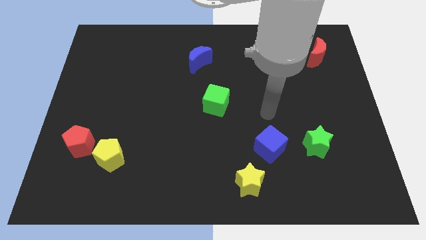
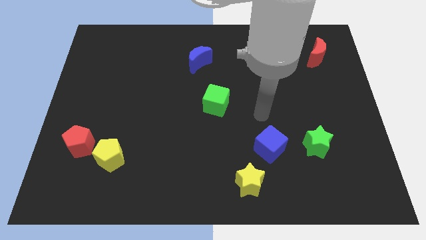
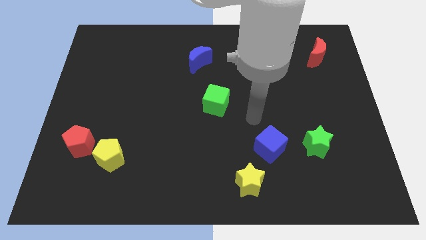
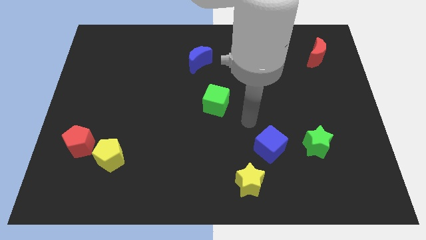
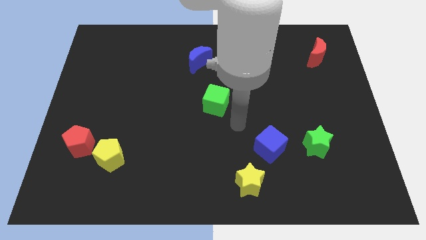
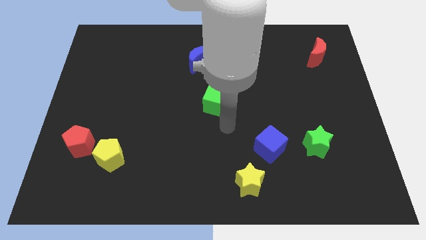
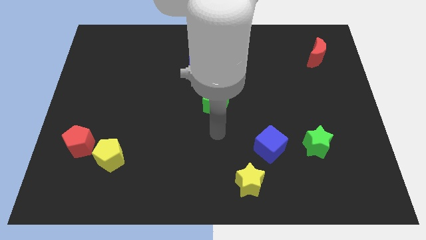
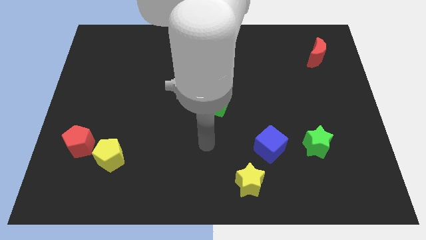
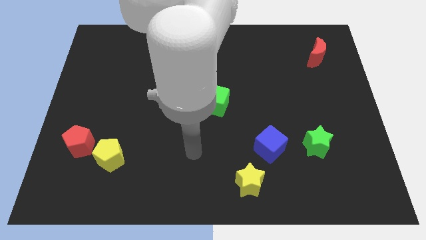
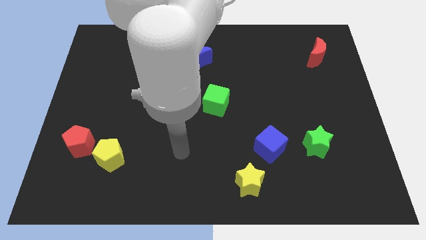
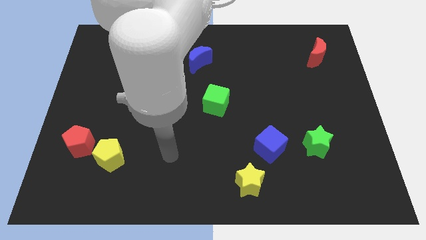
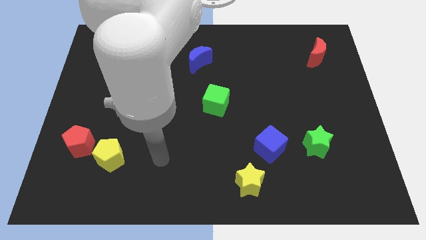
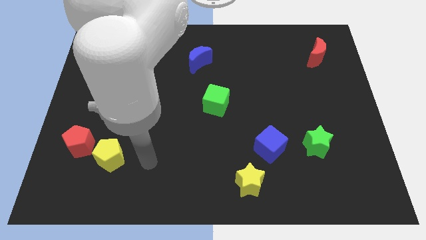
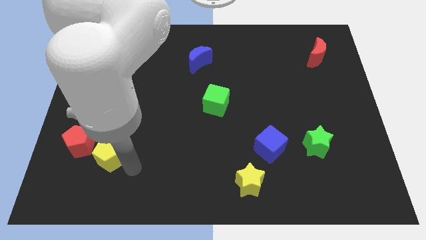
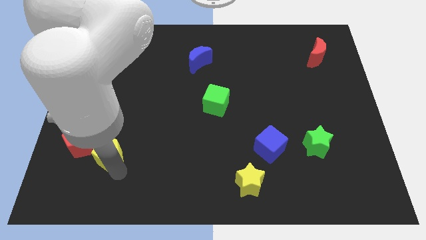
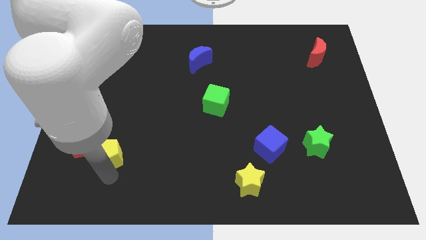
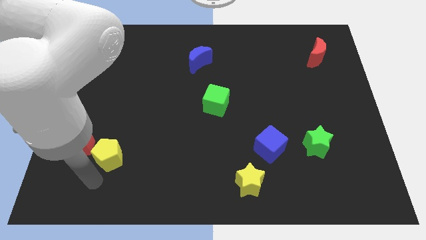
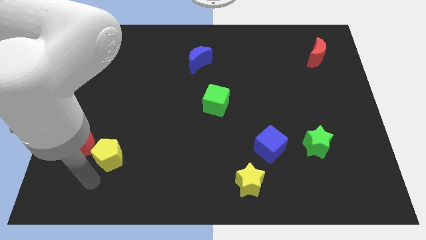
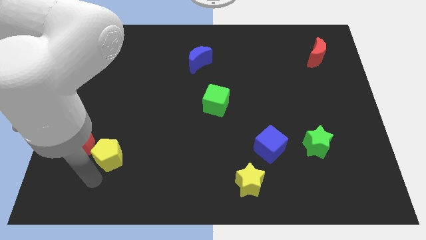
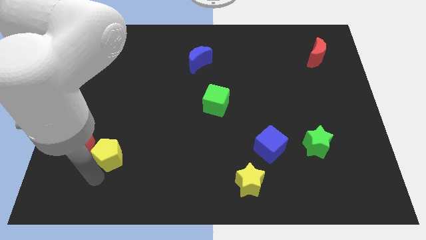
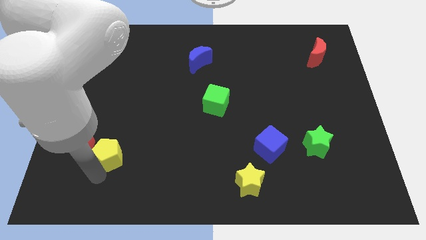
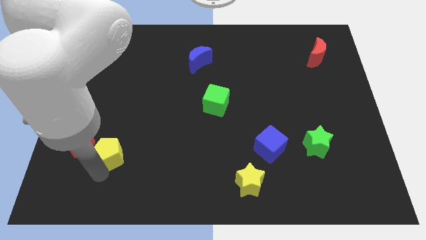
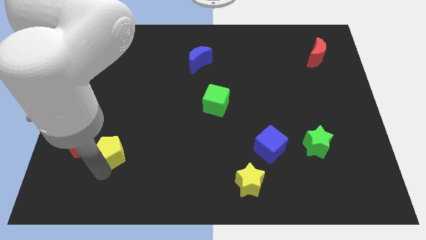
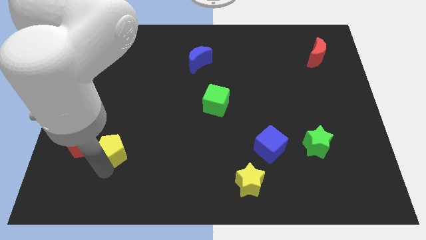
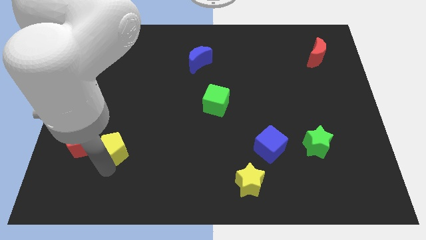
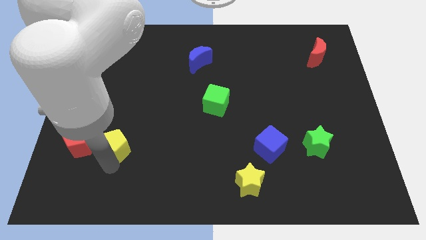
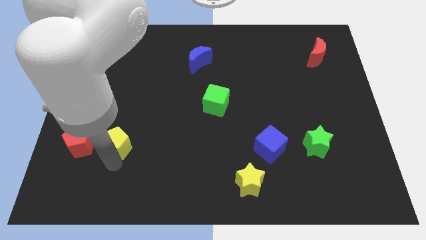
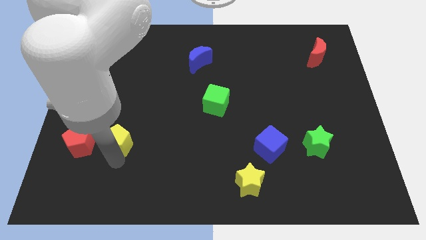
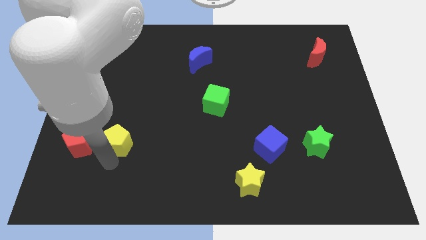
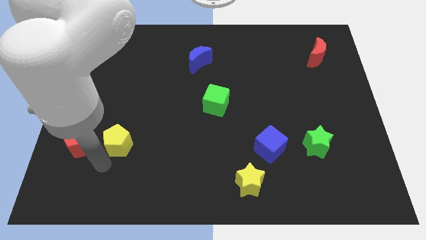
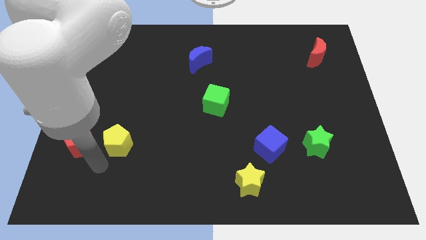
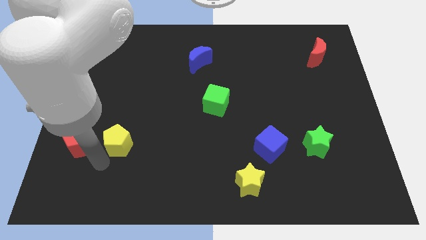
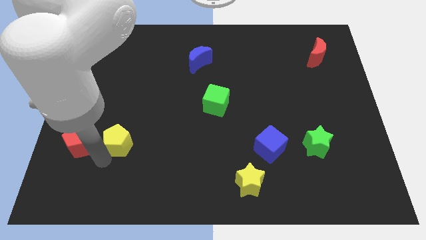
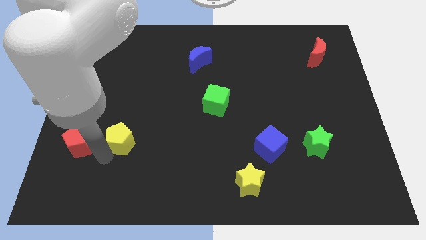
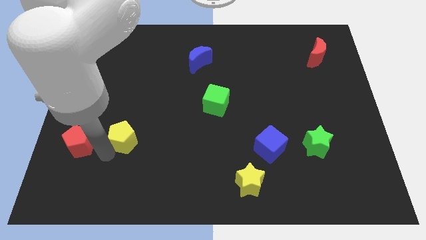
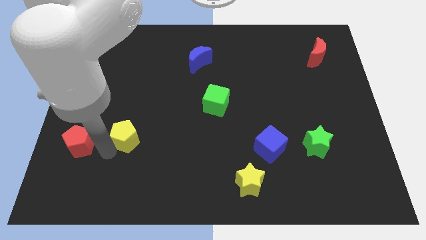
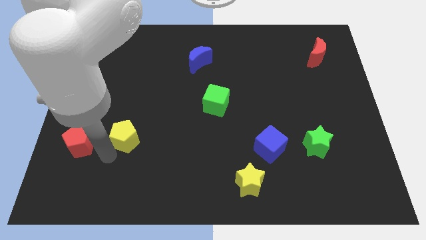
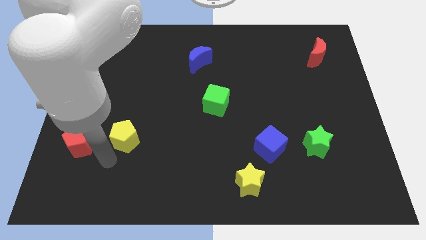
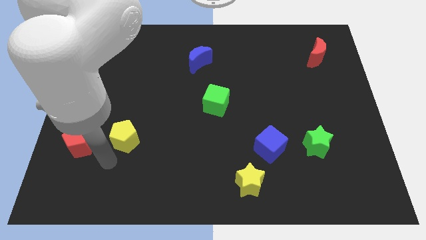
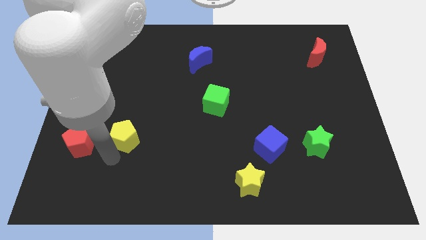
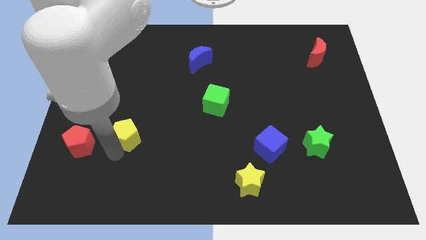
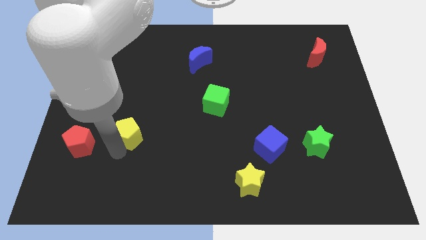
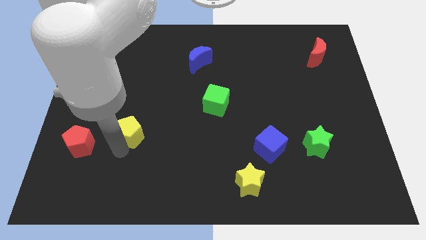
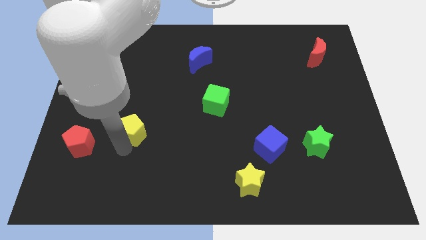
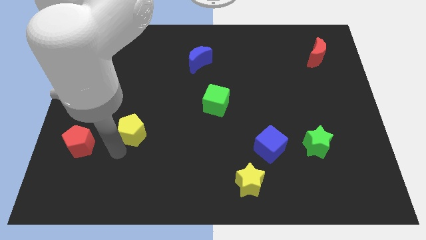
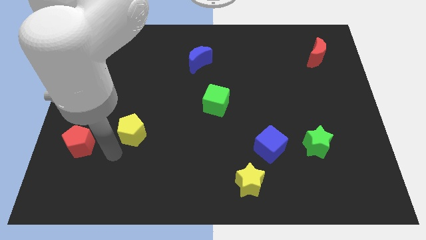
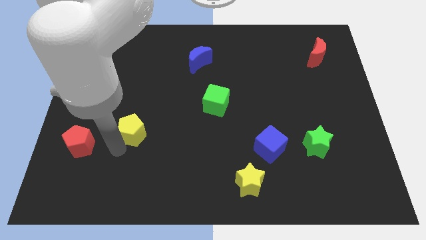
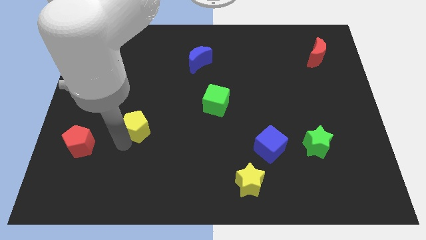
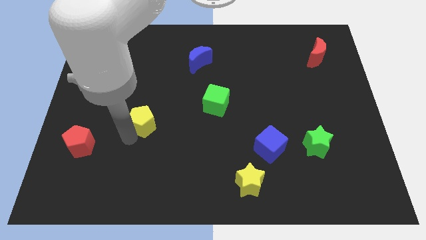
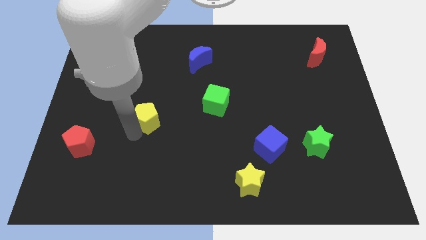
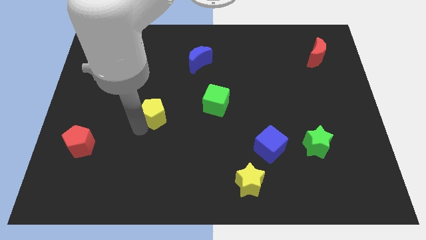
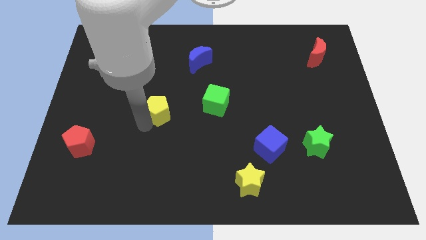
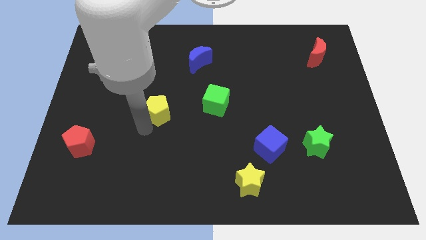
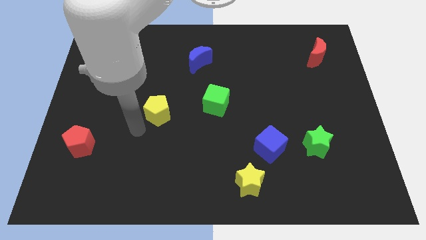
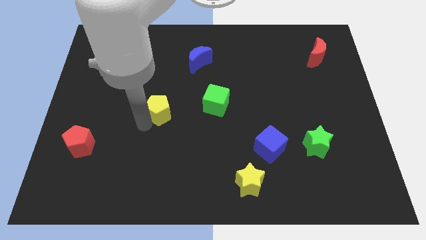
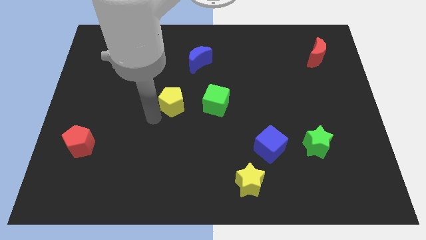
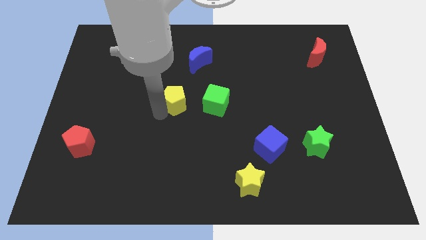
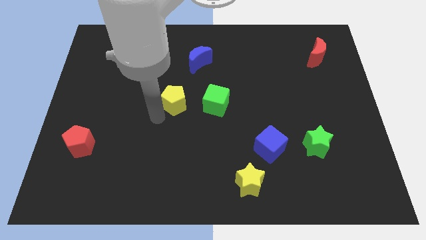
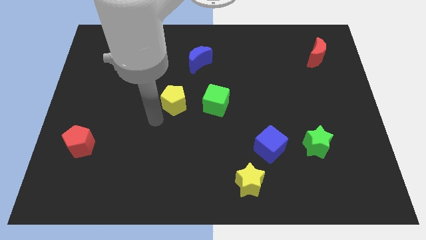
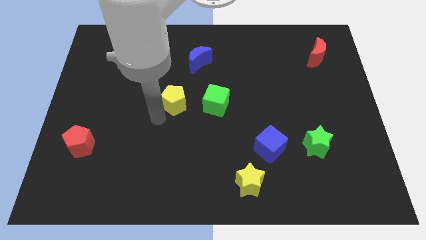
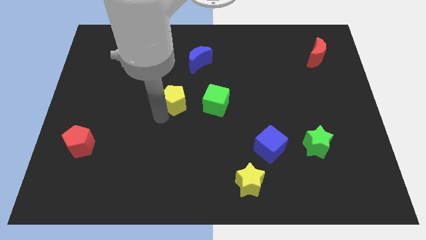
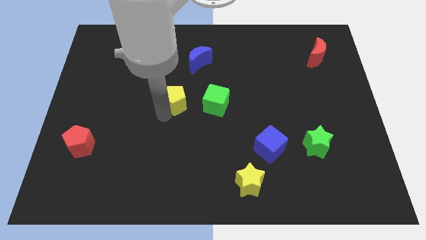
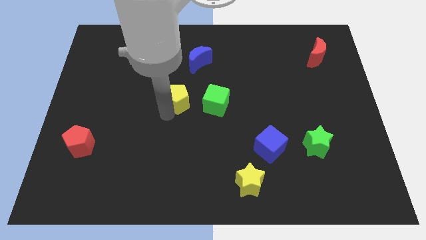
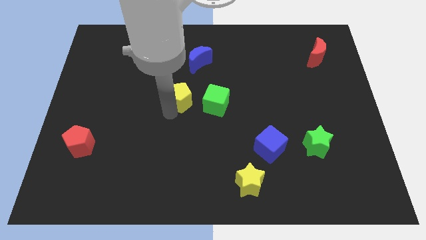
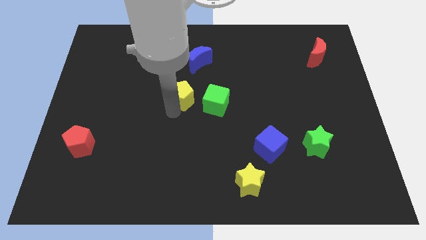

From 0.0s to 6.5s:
slide the yellow pentagon diagonally up and to the left of the green cube
